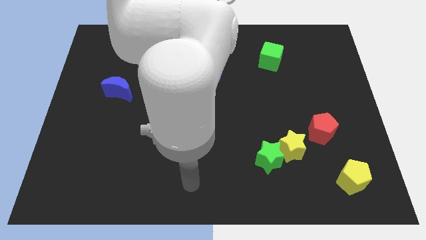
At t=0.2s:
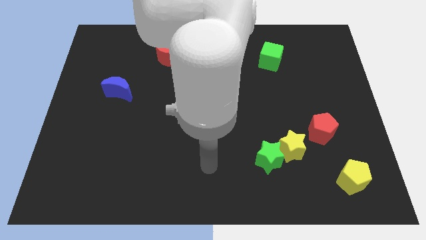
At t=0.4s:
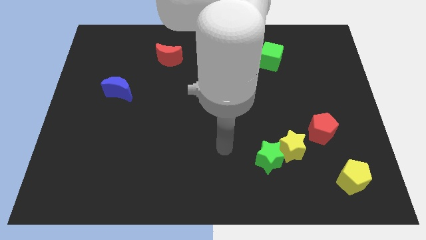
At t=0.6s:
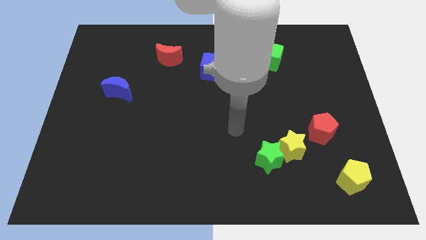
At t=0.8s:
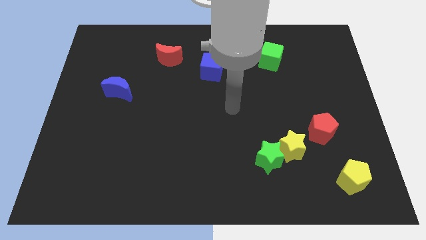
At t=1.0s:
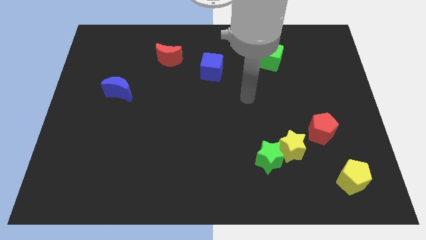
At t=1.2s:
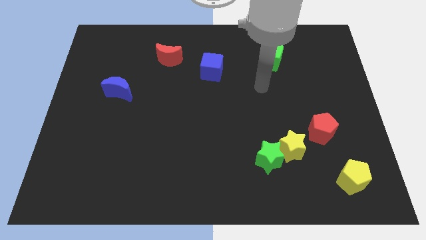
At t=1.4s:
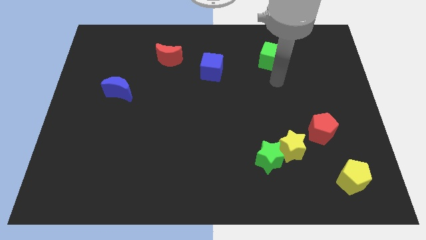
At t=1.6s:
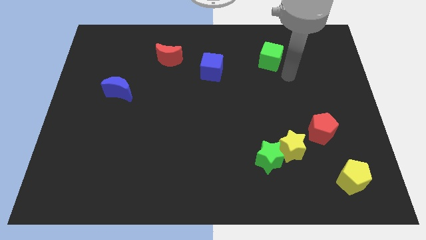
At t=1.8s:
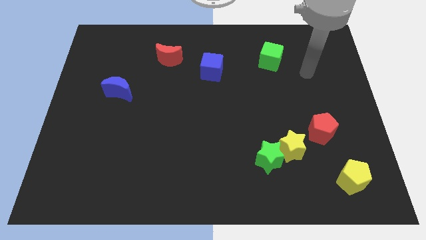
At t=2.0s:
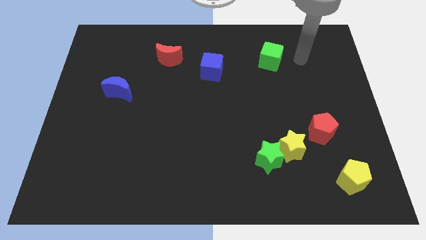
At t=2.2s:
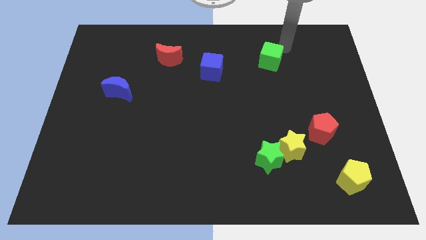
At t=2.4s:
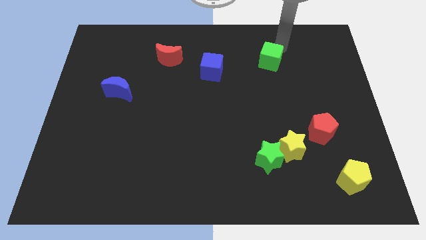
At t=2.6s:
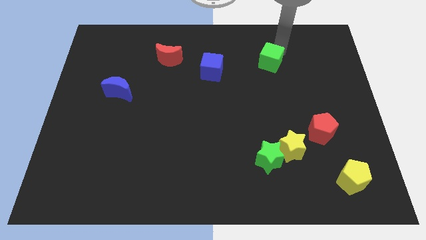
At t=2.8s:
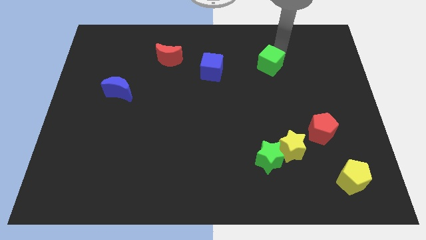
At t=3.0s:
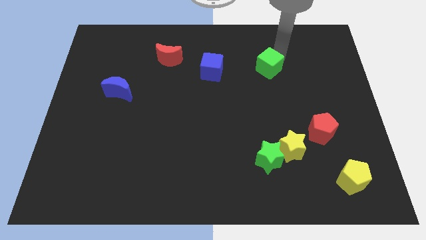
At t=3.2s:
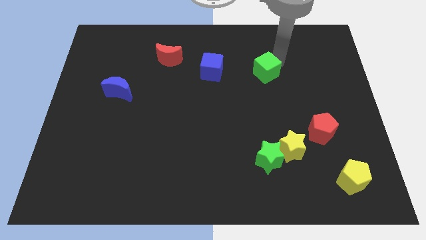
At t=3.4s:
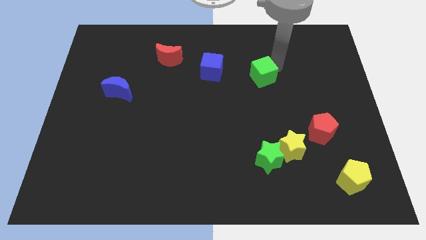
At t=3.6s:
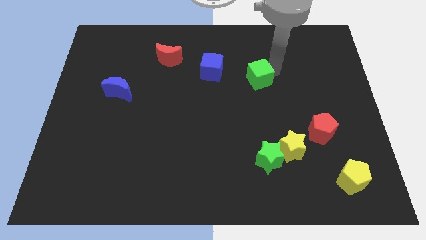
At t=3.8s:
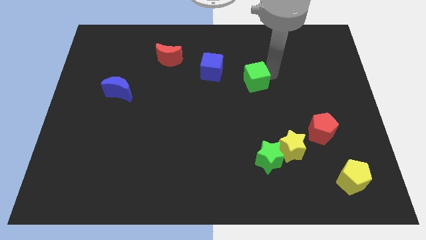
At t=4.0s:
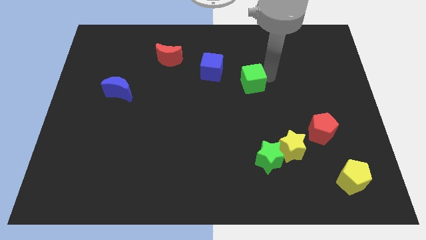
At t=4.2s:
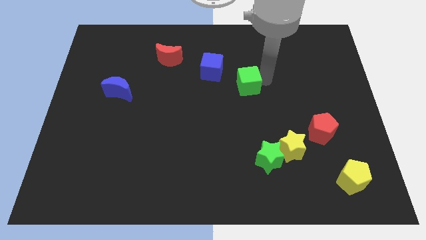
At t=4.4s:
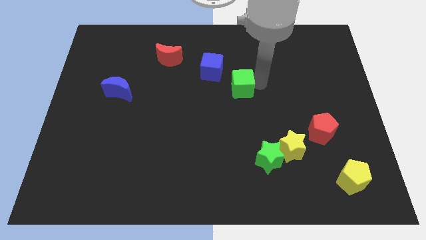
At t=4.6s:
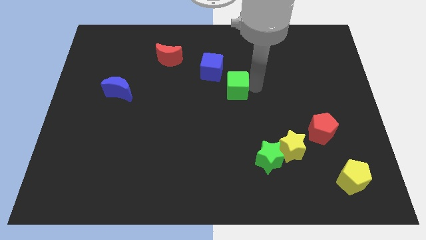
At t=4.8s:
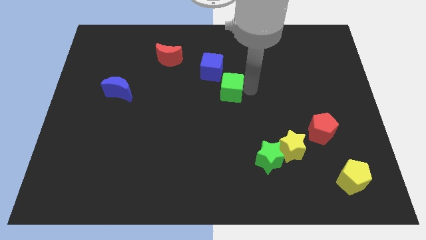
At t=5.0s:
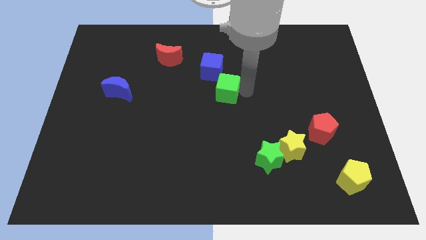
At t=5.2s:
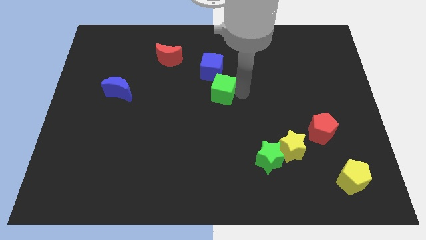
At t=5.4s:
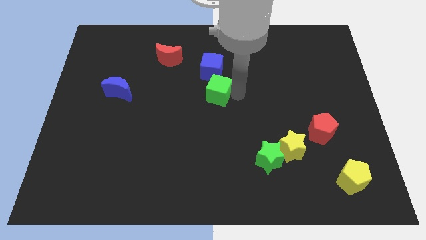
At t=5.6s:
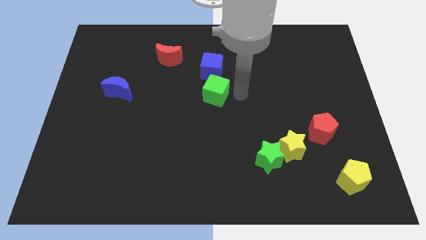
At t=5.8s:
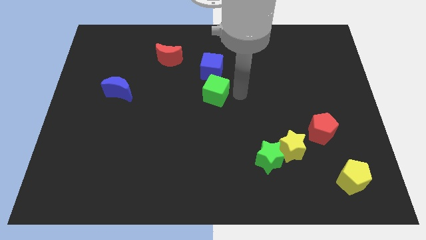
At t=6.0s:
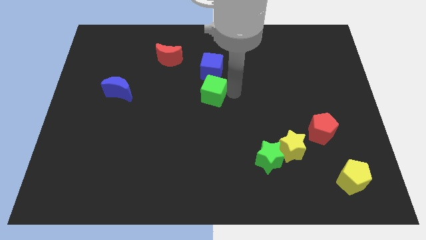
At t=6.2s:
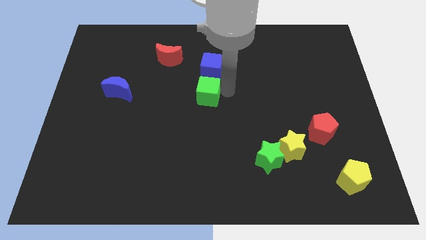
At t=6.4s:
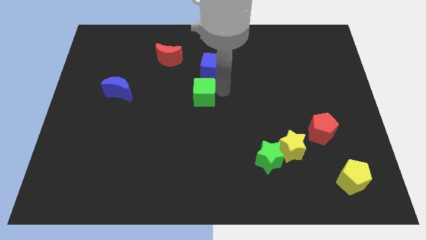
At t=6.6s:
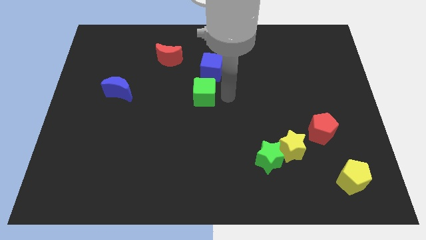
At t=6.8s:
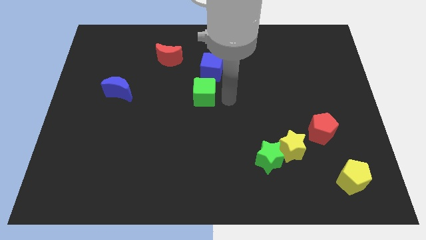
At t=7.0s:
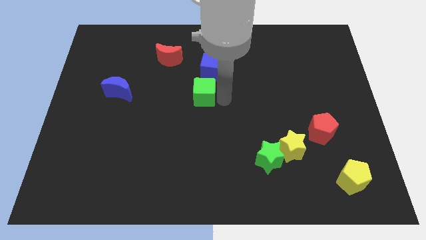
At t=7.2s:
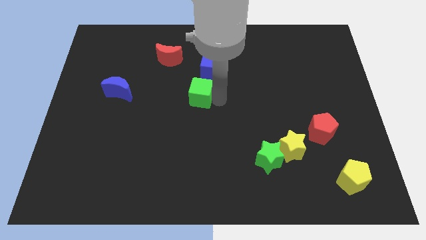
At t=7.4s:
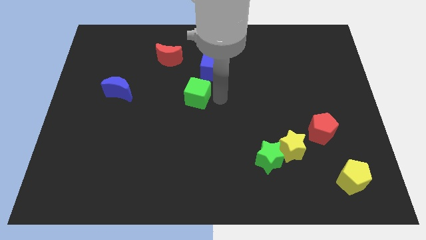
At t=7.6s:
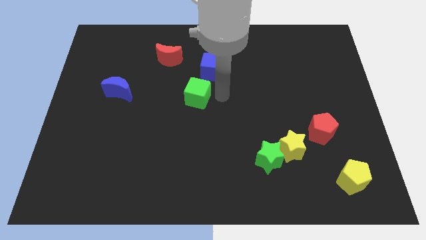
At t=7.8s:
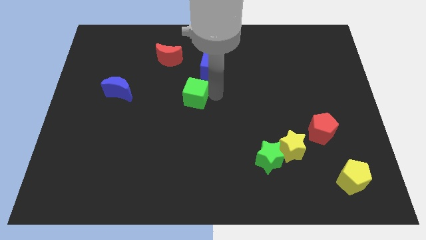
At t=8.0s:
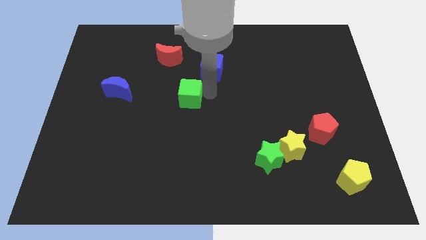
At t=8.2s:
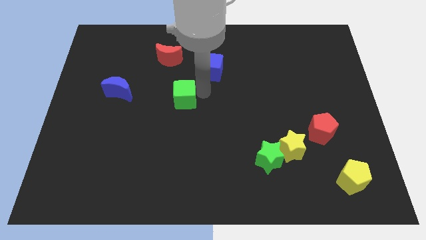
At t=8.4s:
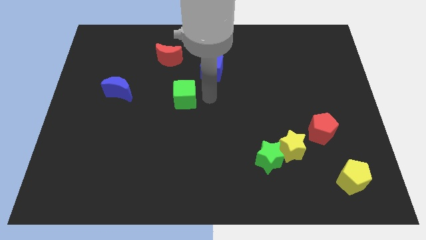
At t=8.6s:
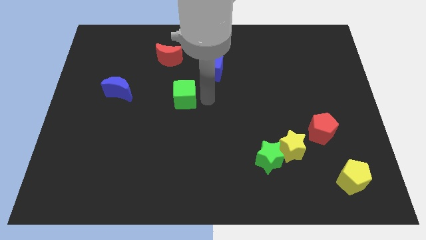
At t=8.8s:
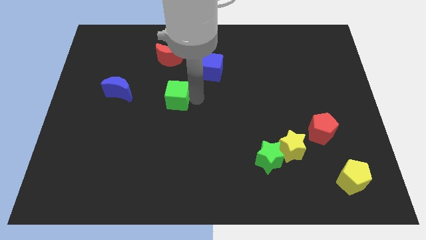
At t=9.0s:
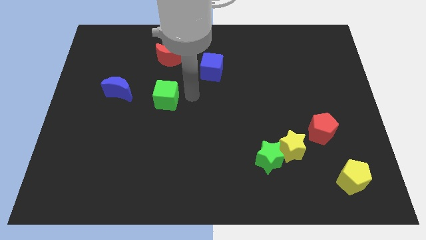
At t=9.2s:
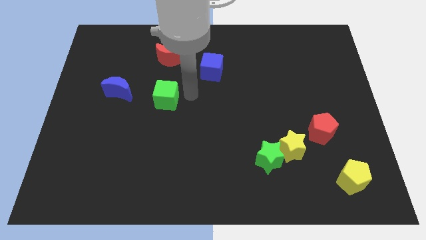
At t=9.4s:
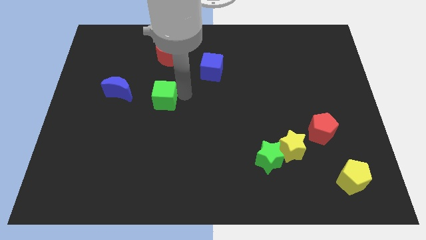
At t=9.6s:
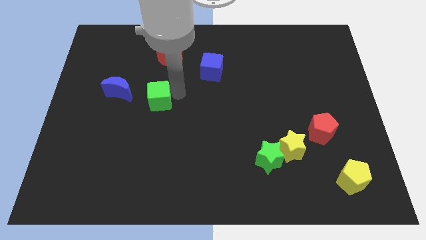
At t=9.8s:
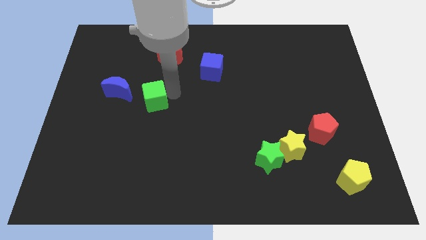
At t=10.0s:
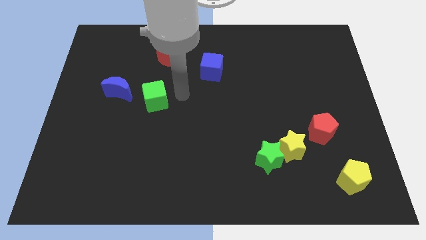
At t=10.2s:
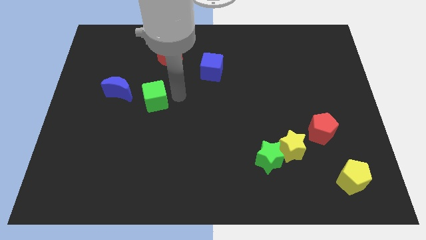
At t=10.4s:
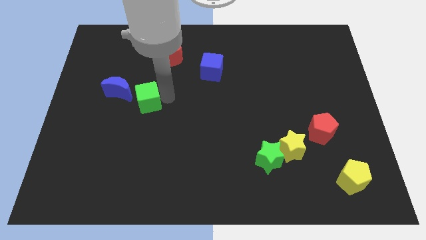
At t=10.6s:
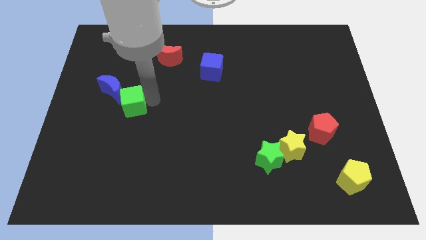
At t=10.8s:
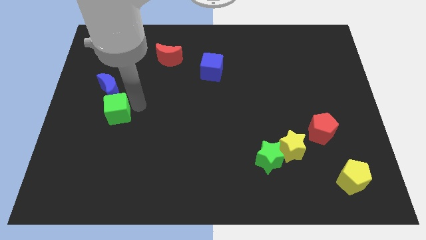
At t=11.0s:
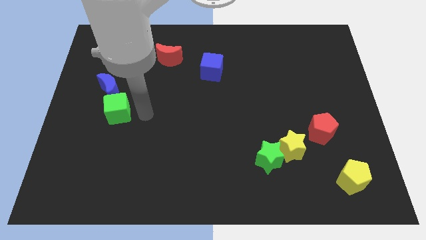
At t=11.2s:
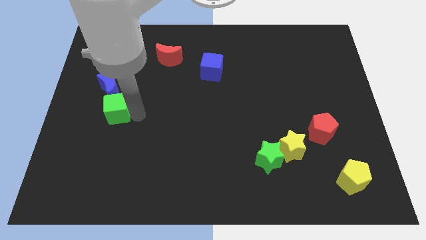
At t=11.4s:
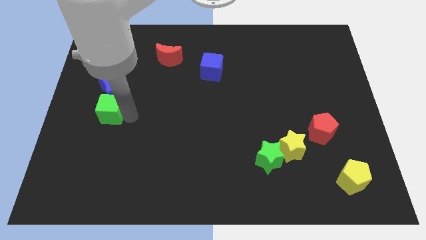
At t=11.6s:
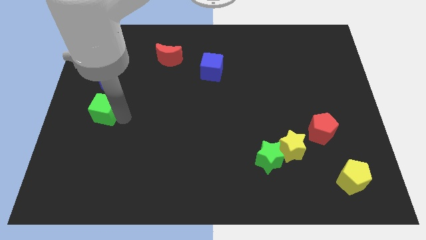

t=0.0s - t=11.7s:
put the green cube to the bottom left of the blue moon

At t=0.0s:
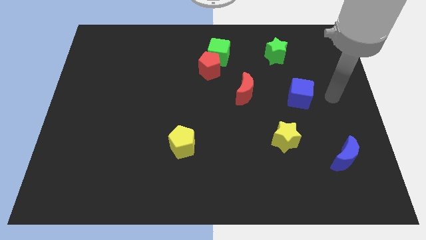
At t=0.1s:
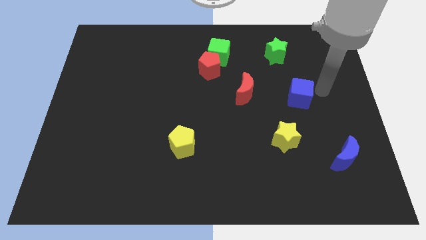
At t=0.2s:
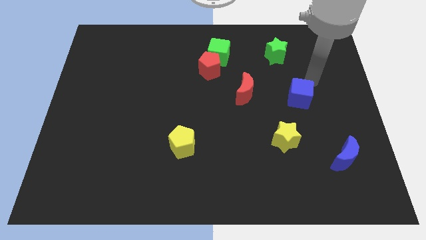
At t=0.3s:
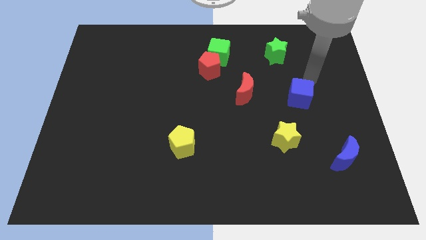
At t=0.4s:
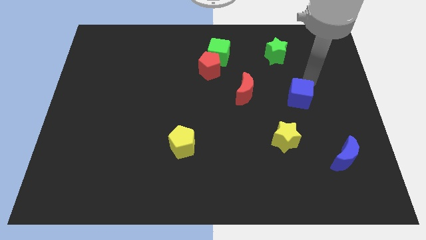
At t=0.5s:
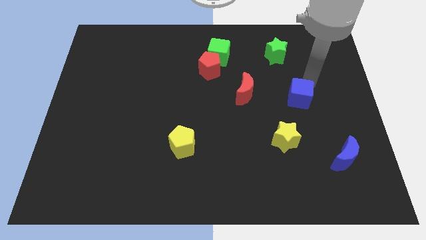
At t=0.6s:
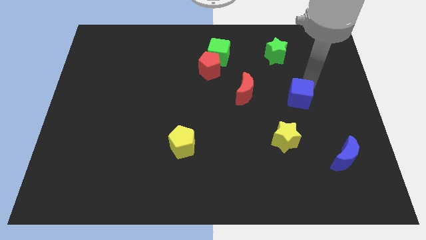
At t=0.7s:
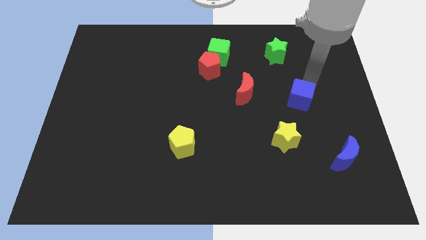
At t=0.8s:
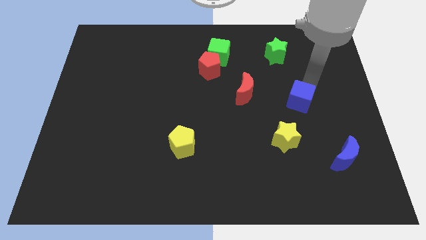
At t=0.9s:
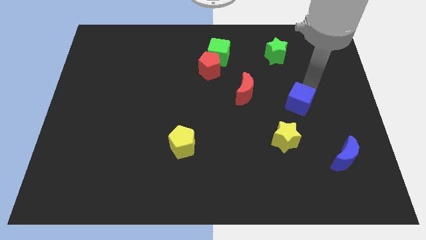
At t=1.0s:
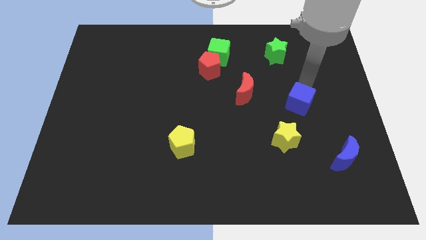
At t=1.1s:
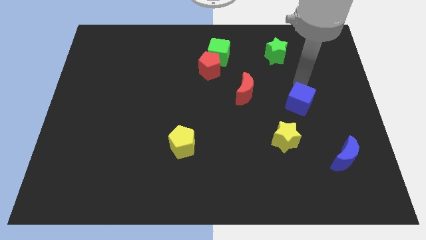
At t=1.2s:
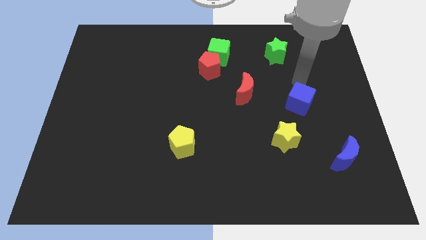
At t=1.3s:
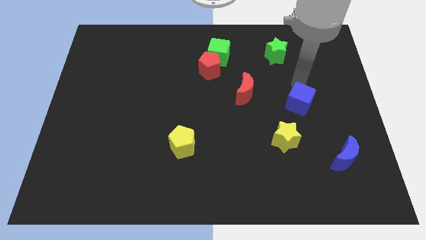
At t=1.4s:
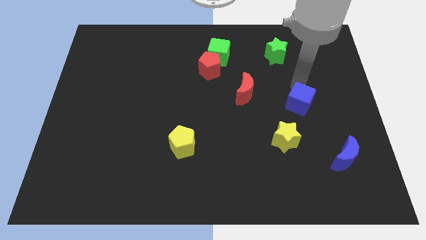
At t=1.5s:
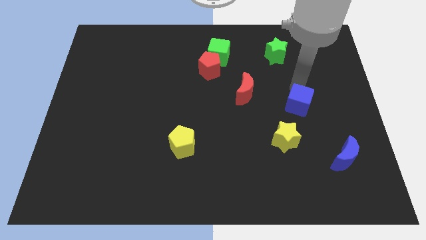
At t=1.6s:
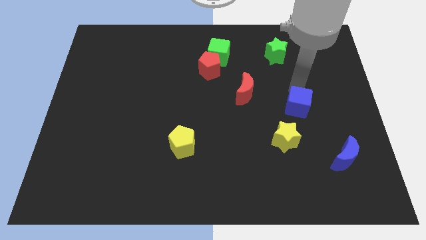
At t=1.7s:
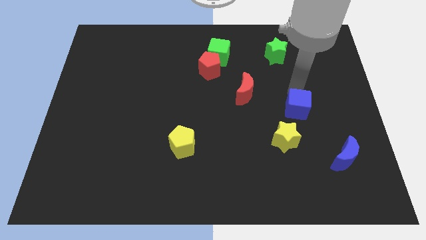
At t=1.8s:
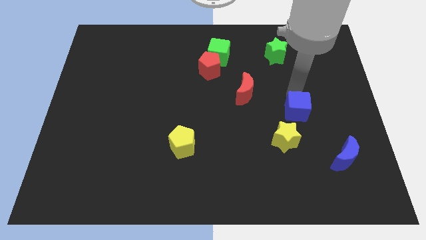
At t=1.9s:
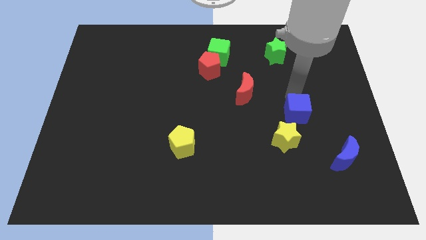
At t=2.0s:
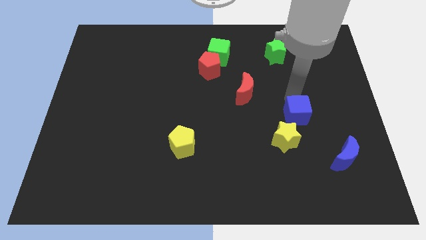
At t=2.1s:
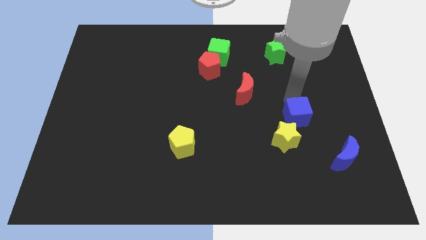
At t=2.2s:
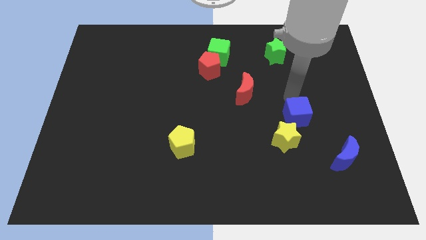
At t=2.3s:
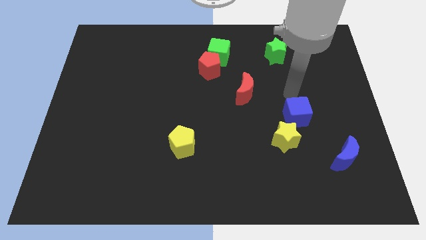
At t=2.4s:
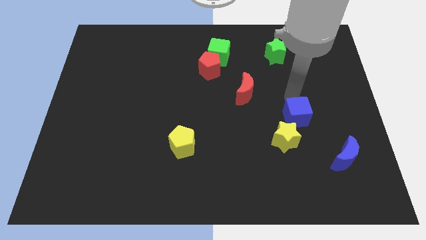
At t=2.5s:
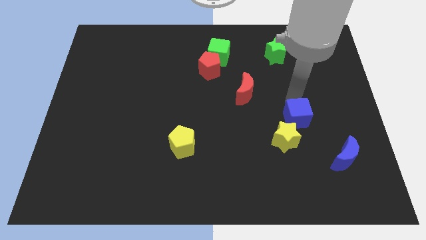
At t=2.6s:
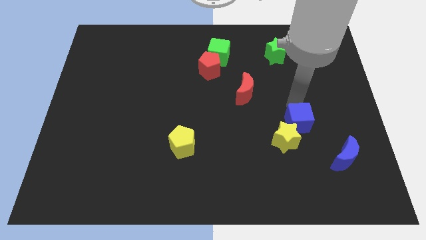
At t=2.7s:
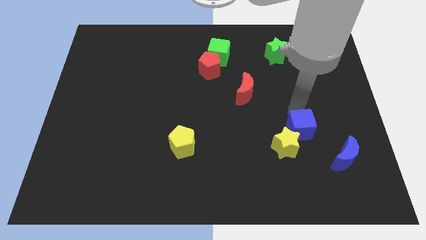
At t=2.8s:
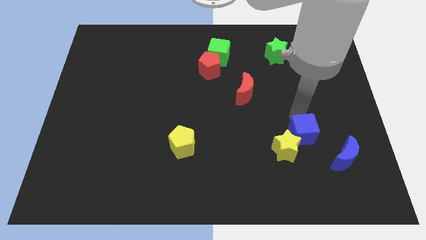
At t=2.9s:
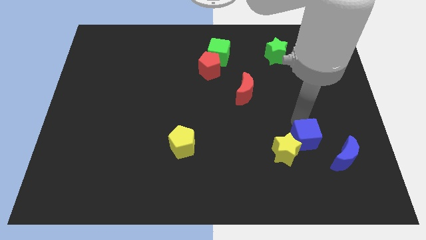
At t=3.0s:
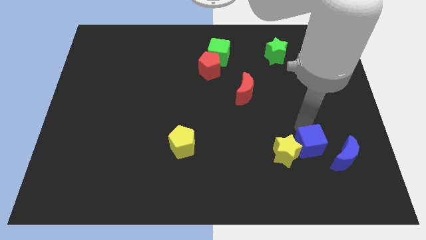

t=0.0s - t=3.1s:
move the blue cube to the left of the blue moon
